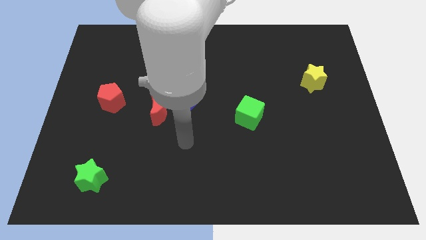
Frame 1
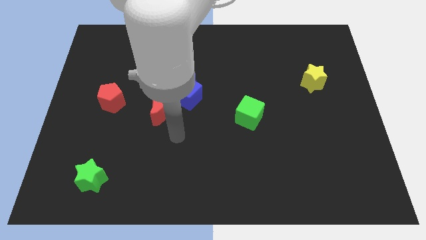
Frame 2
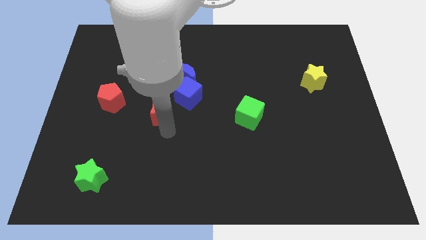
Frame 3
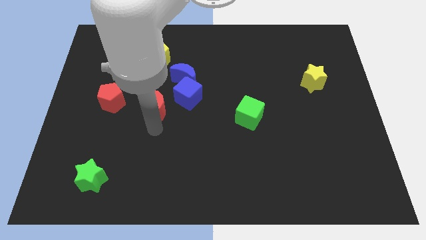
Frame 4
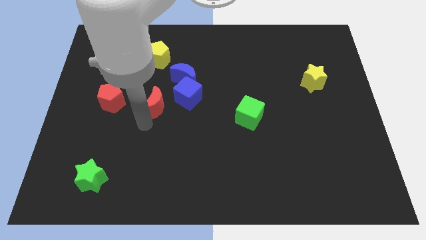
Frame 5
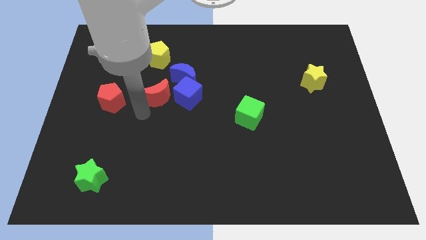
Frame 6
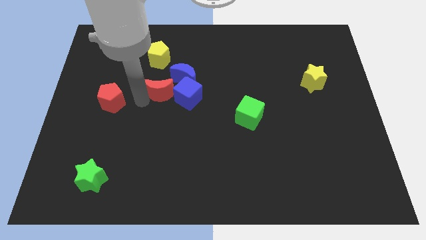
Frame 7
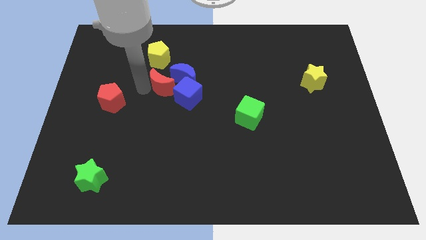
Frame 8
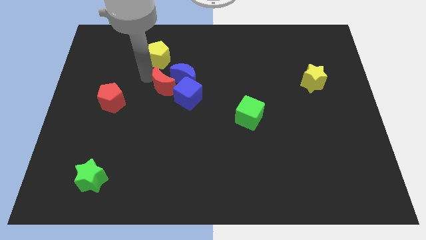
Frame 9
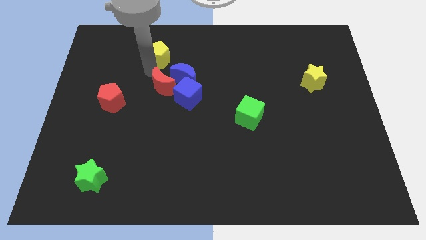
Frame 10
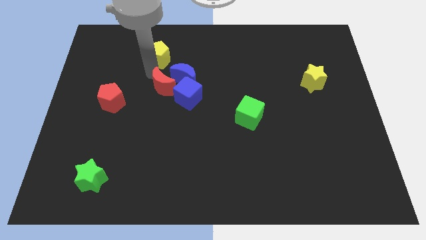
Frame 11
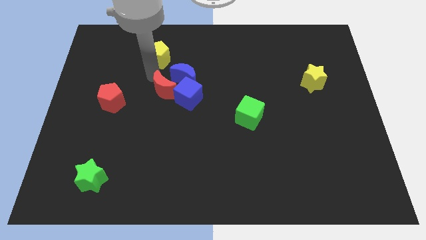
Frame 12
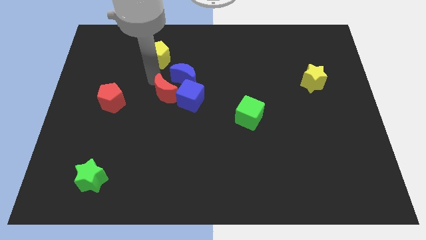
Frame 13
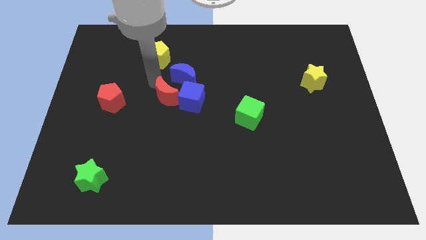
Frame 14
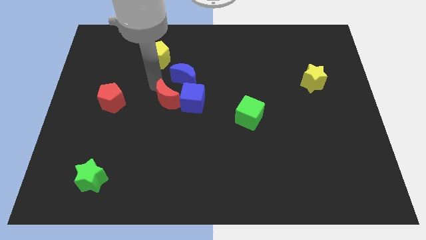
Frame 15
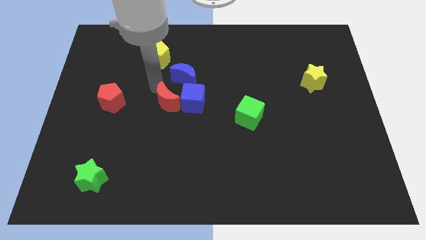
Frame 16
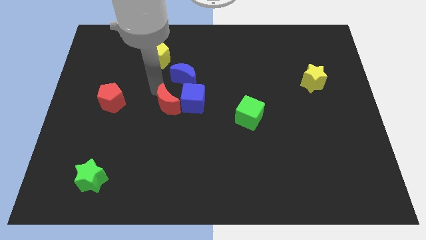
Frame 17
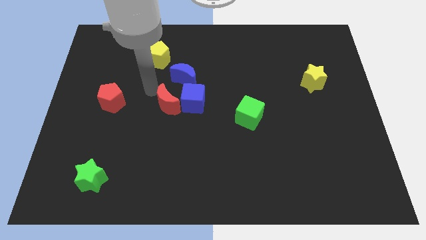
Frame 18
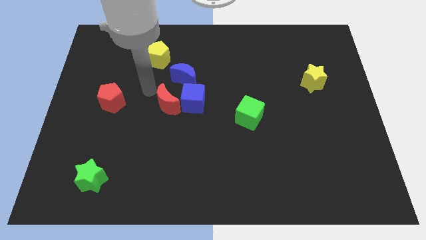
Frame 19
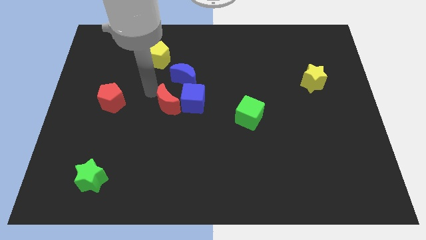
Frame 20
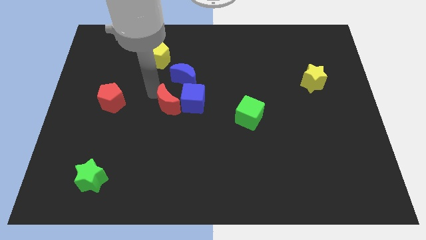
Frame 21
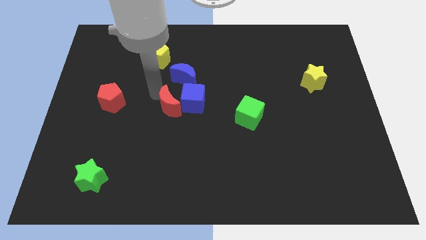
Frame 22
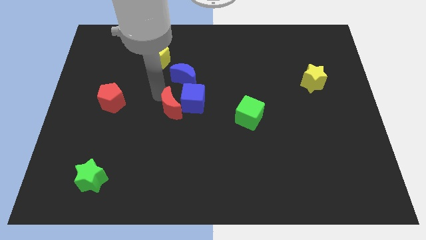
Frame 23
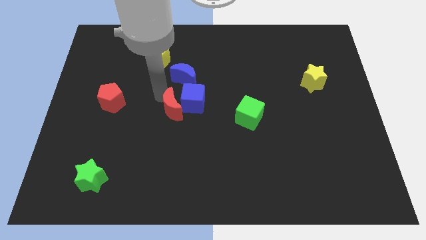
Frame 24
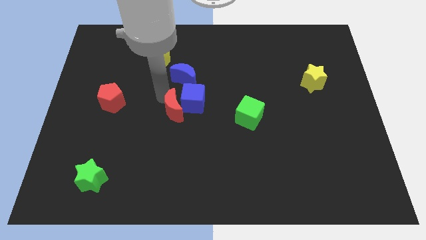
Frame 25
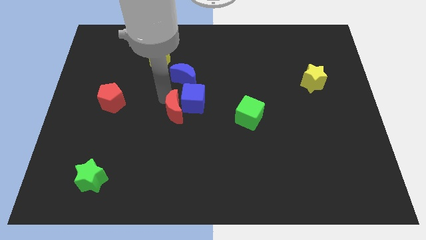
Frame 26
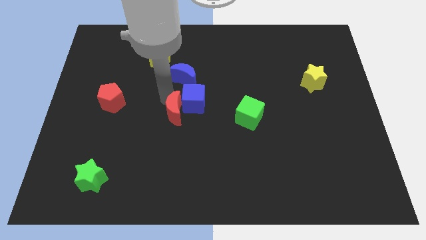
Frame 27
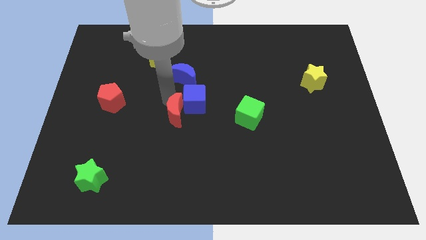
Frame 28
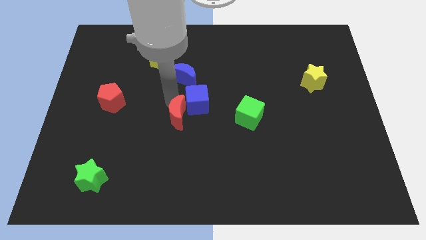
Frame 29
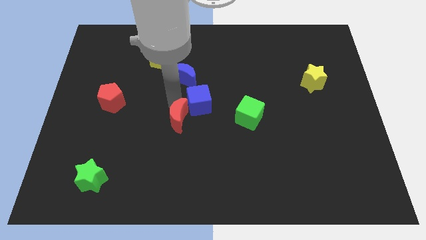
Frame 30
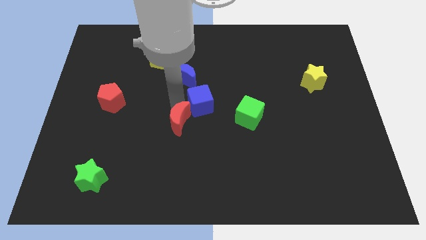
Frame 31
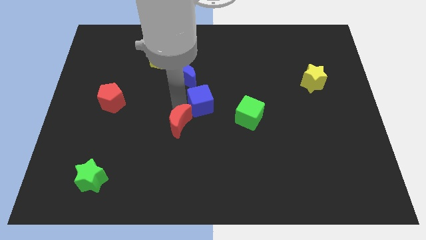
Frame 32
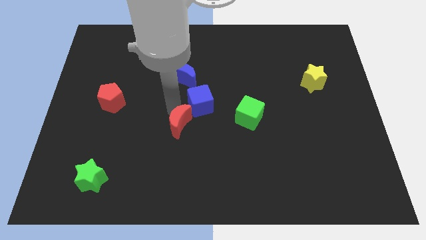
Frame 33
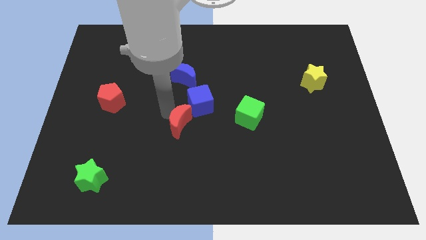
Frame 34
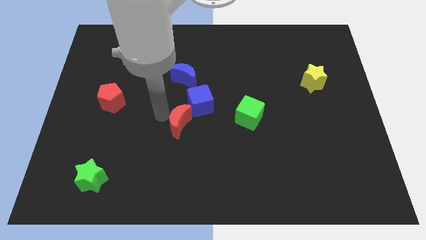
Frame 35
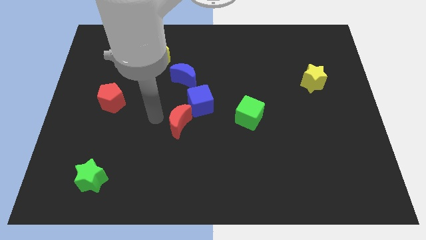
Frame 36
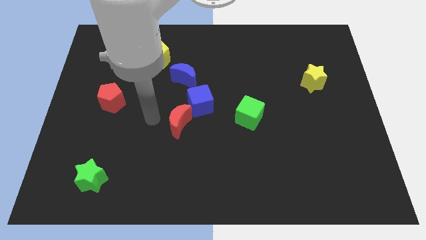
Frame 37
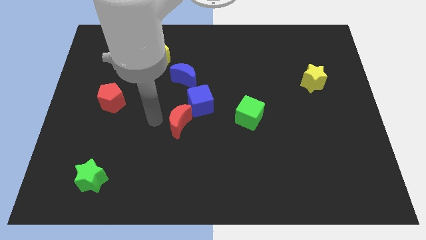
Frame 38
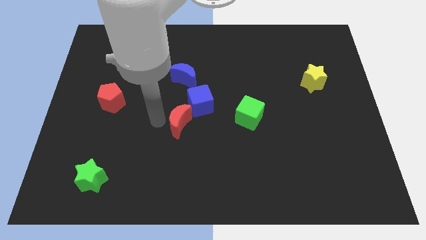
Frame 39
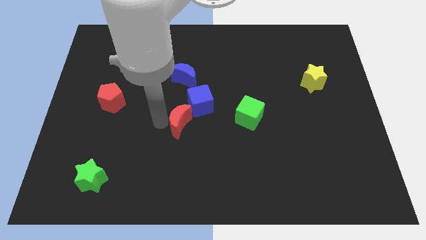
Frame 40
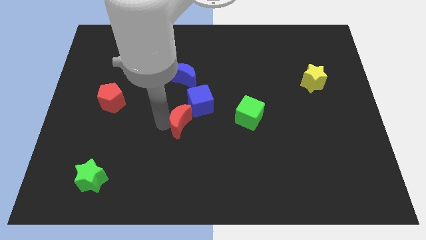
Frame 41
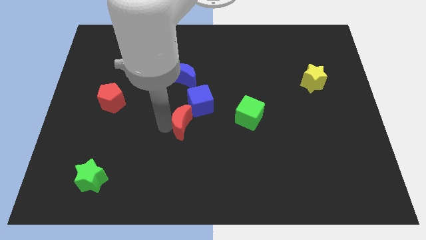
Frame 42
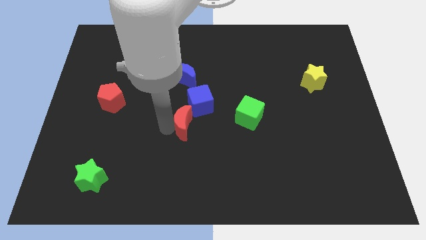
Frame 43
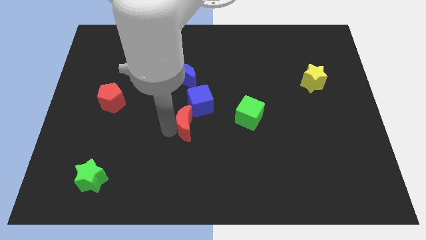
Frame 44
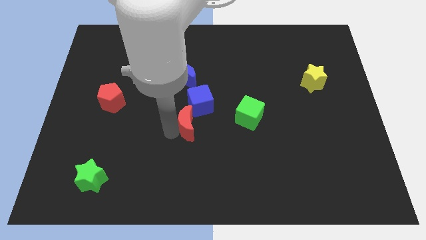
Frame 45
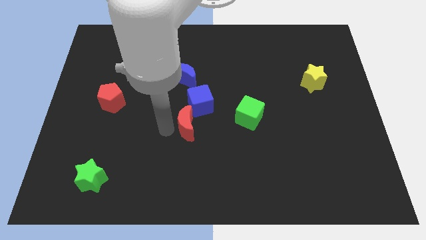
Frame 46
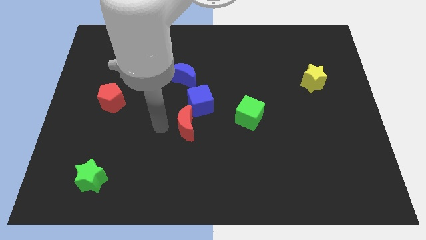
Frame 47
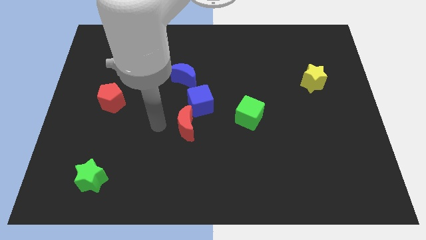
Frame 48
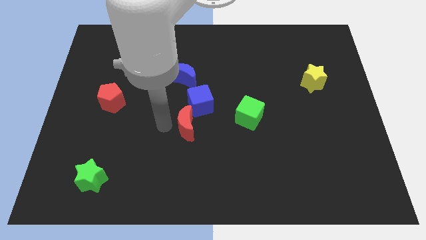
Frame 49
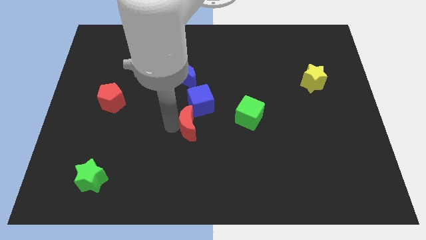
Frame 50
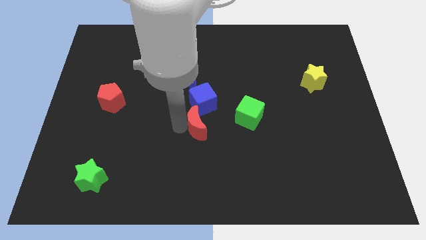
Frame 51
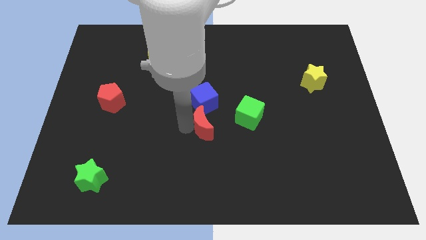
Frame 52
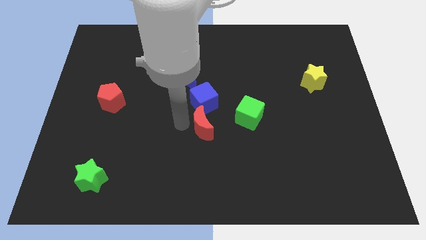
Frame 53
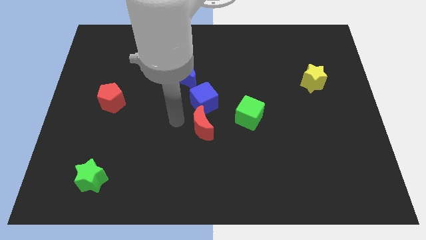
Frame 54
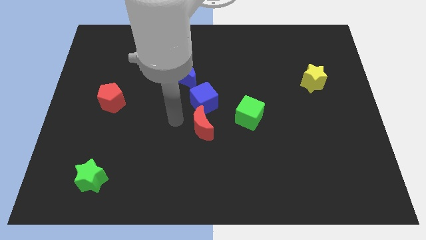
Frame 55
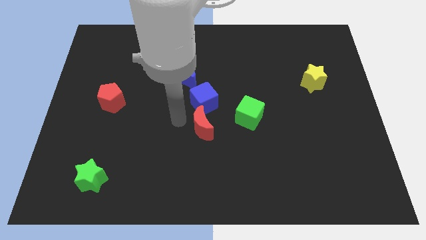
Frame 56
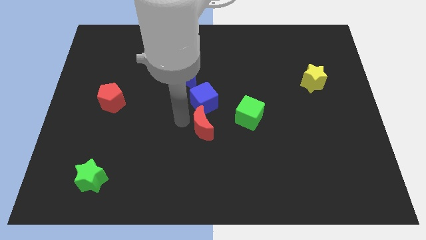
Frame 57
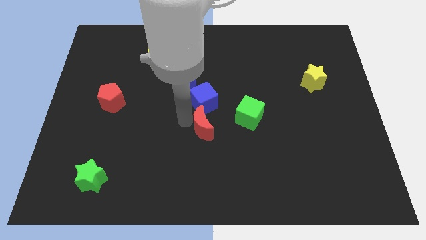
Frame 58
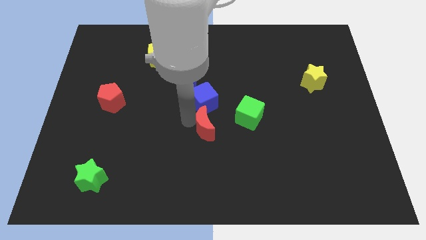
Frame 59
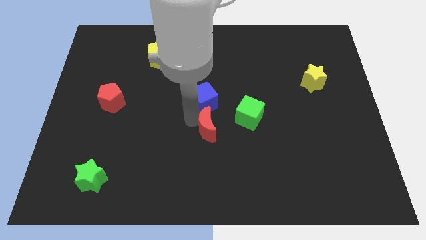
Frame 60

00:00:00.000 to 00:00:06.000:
put the red moon to the bottom left side of the green cube
